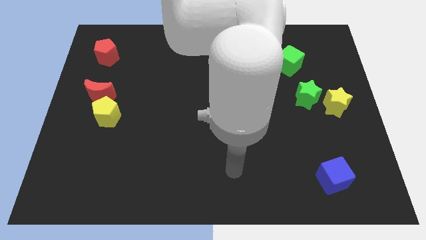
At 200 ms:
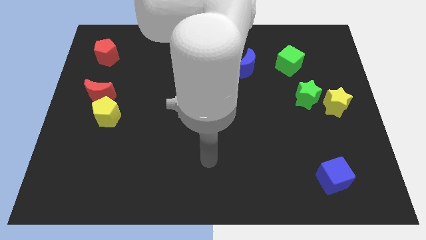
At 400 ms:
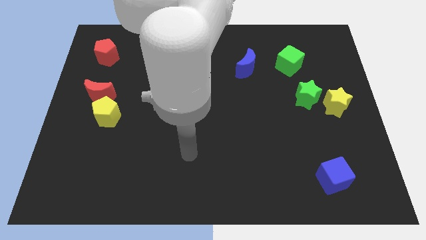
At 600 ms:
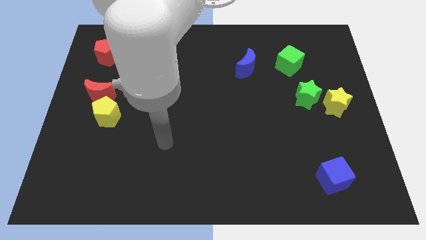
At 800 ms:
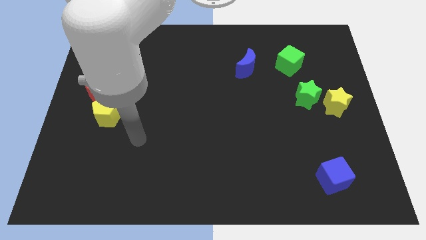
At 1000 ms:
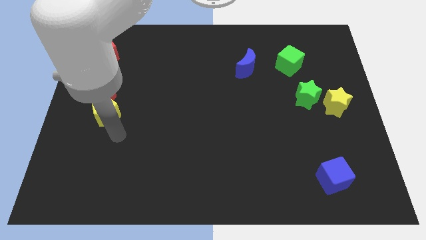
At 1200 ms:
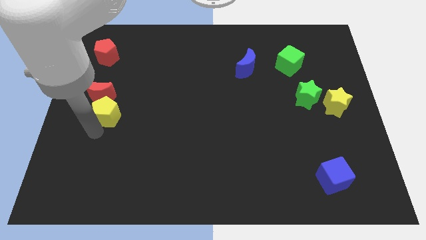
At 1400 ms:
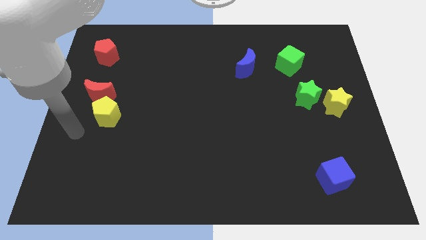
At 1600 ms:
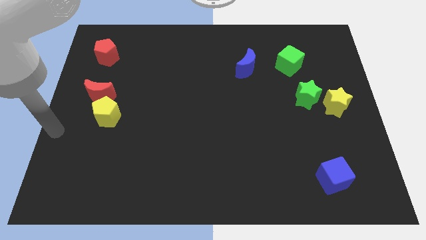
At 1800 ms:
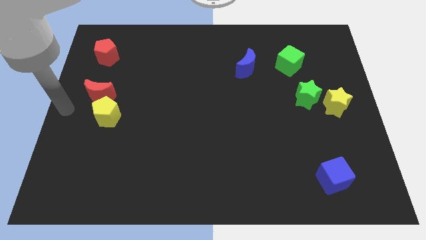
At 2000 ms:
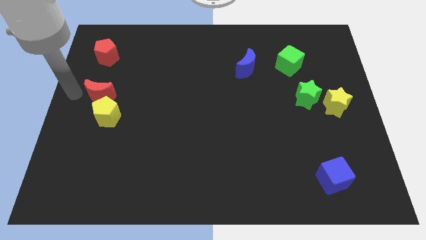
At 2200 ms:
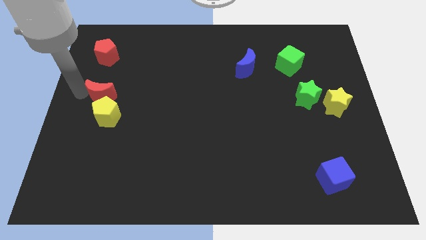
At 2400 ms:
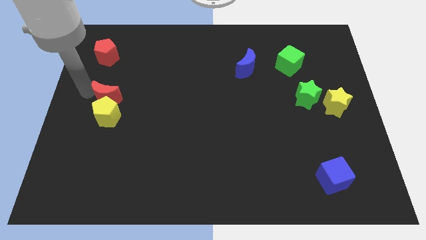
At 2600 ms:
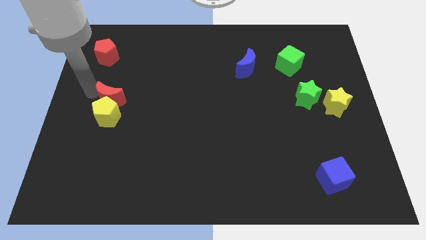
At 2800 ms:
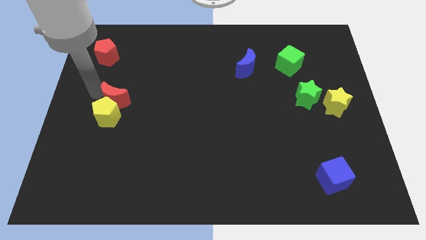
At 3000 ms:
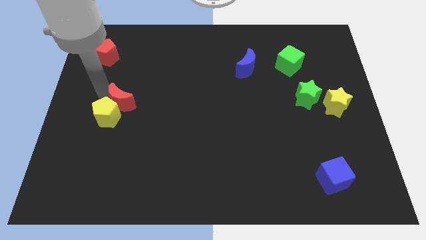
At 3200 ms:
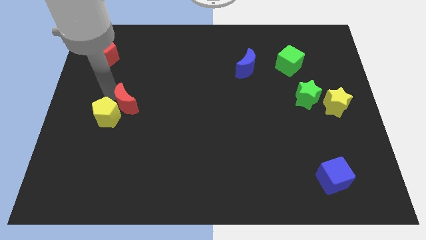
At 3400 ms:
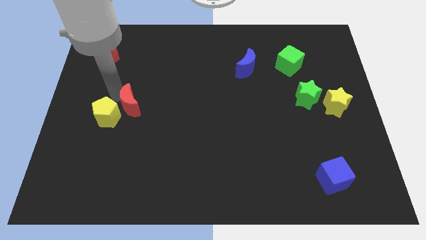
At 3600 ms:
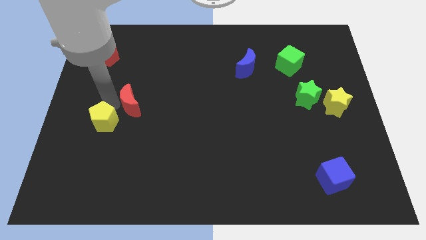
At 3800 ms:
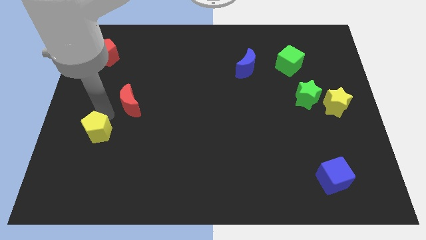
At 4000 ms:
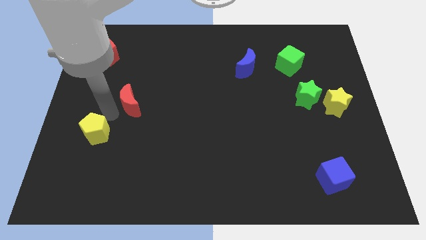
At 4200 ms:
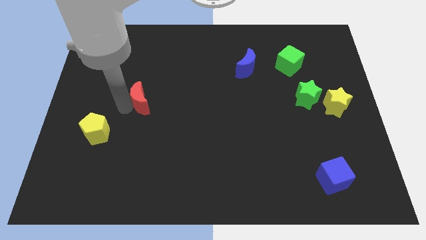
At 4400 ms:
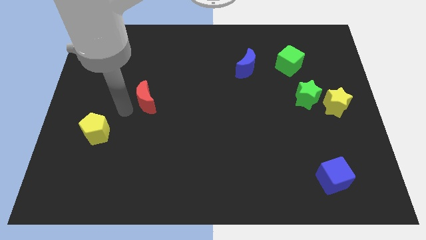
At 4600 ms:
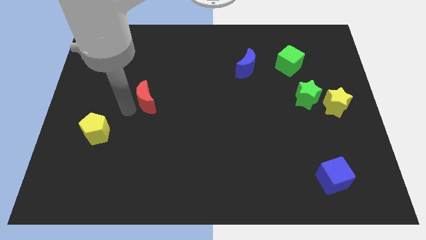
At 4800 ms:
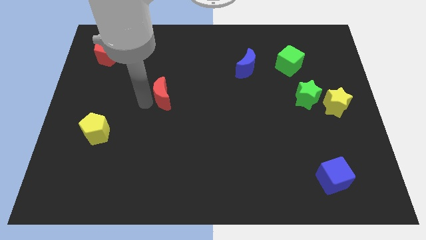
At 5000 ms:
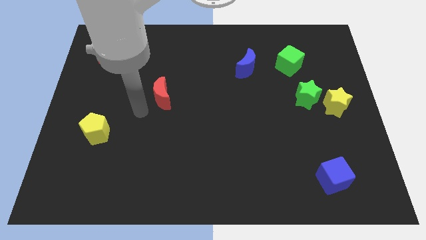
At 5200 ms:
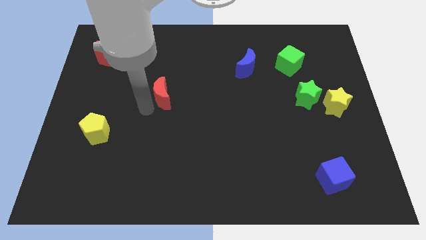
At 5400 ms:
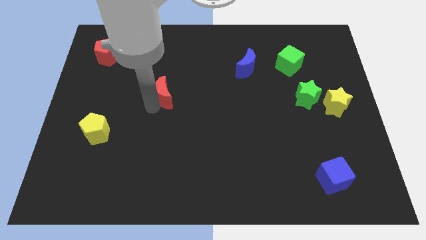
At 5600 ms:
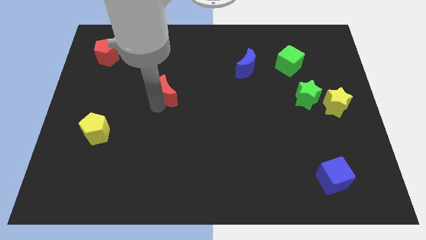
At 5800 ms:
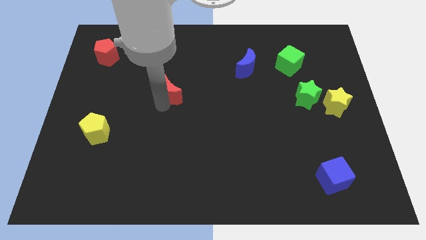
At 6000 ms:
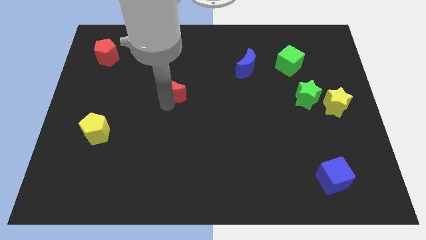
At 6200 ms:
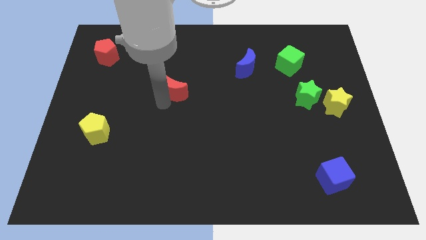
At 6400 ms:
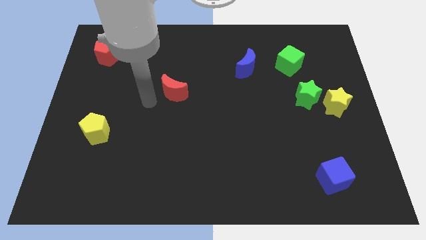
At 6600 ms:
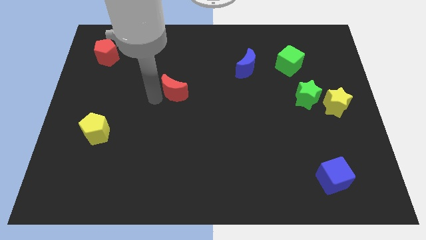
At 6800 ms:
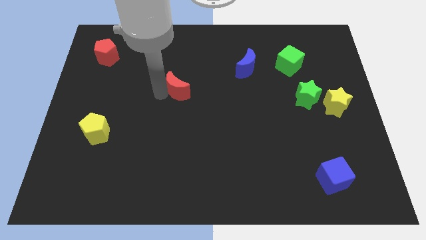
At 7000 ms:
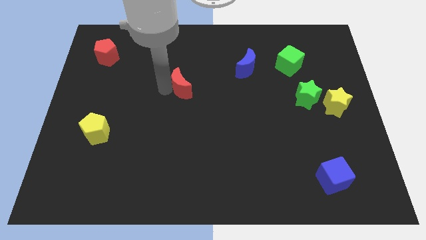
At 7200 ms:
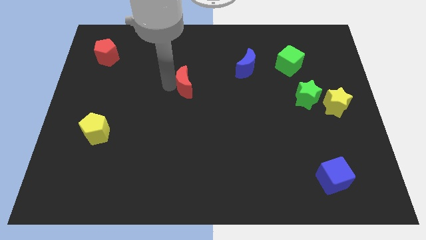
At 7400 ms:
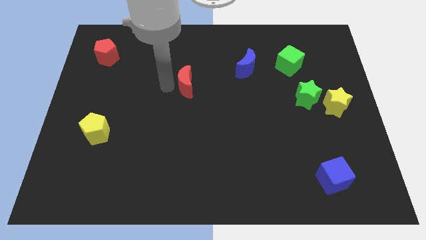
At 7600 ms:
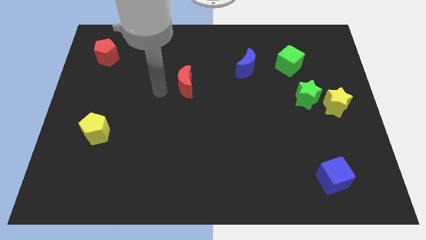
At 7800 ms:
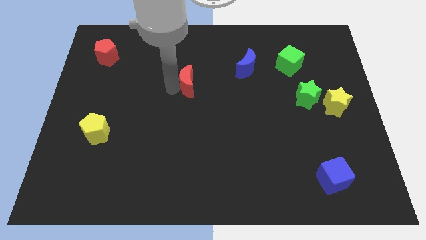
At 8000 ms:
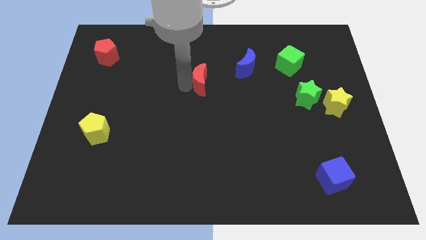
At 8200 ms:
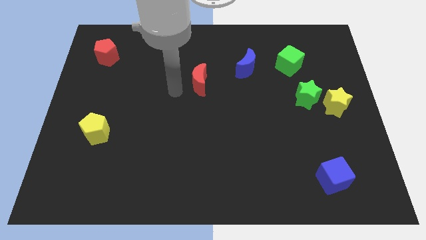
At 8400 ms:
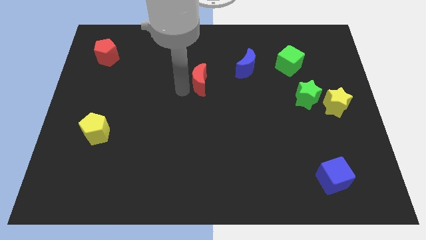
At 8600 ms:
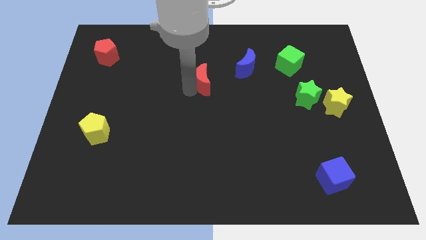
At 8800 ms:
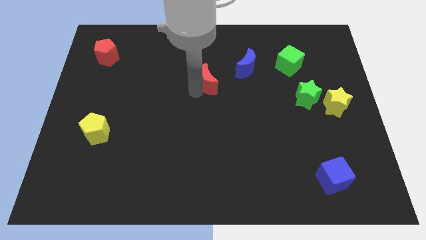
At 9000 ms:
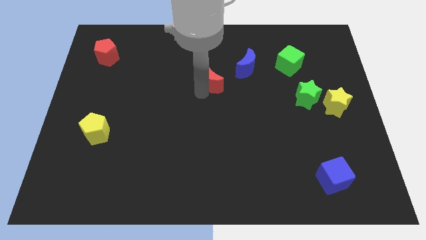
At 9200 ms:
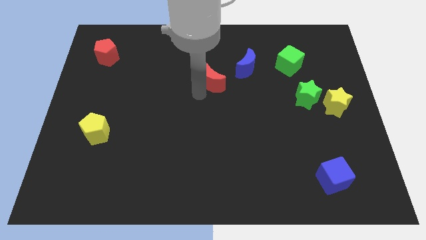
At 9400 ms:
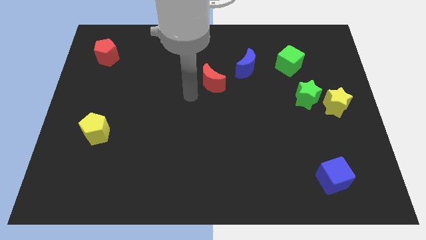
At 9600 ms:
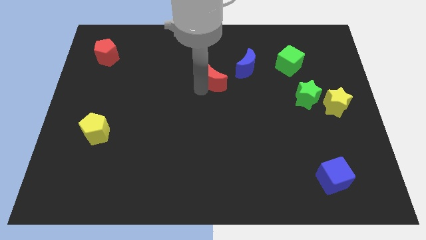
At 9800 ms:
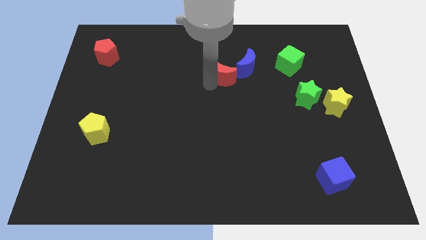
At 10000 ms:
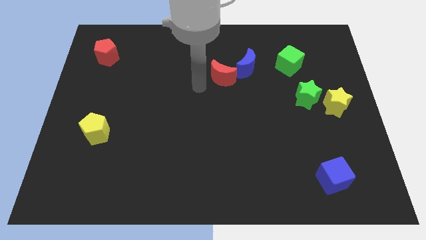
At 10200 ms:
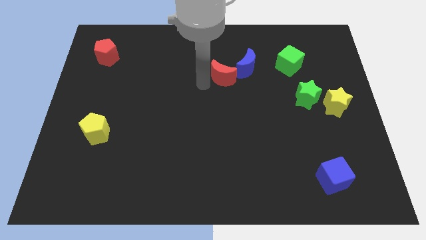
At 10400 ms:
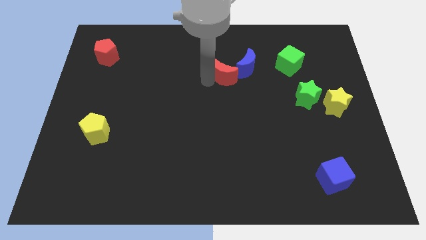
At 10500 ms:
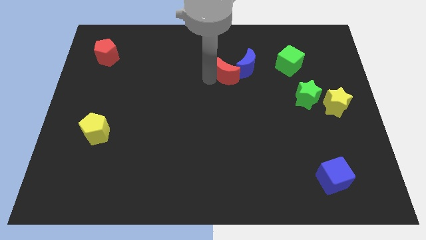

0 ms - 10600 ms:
push the red moon to the blue moon

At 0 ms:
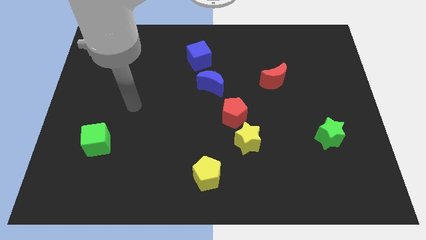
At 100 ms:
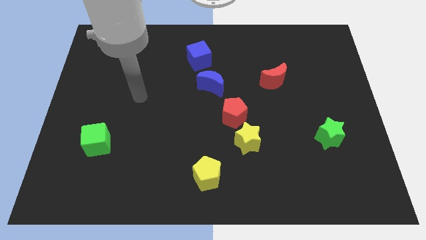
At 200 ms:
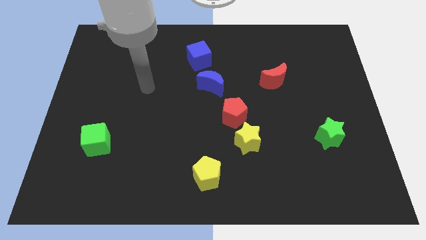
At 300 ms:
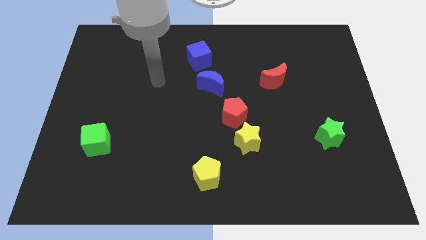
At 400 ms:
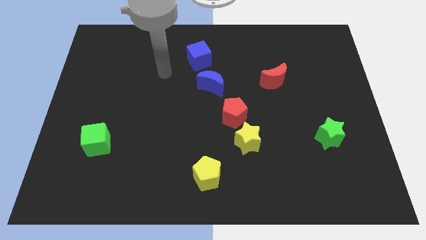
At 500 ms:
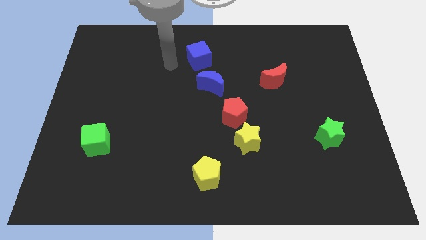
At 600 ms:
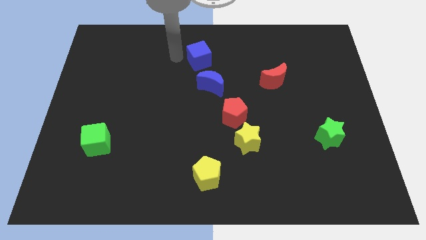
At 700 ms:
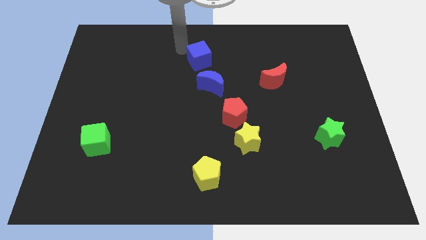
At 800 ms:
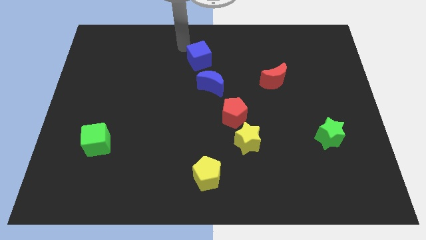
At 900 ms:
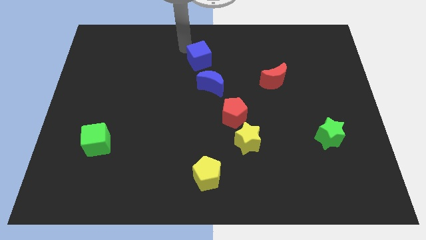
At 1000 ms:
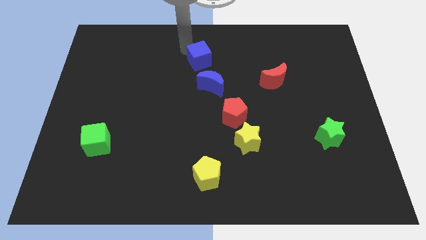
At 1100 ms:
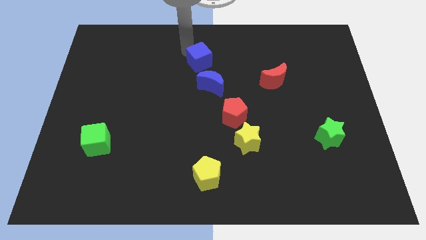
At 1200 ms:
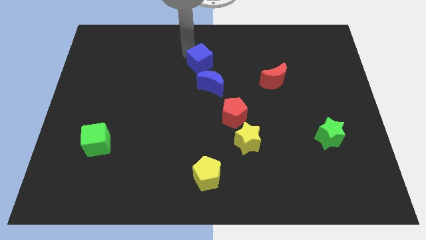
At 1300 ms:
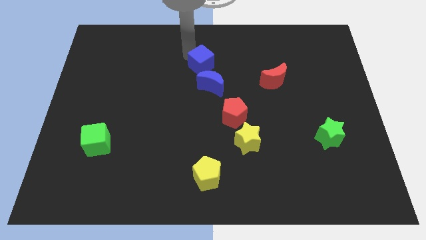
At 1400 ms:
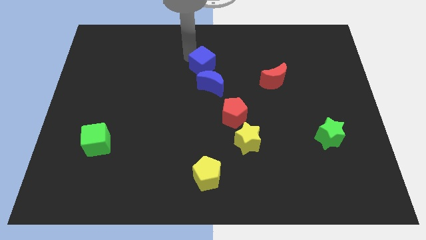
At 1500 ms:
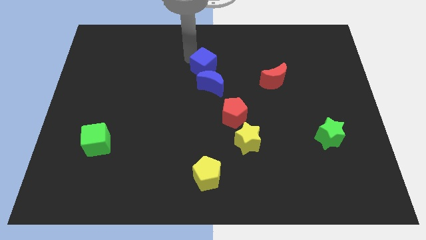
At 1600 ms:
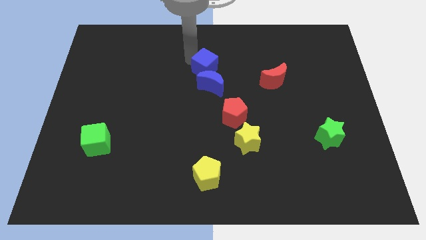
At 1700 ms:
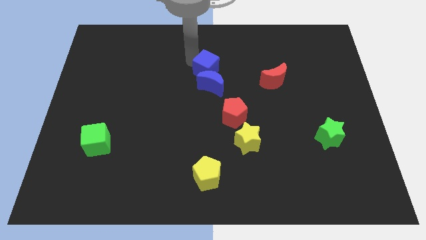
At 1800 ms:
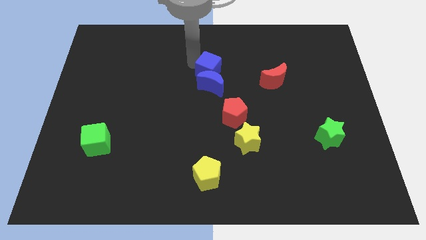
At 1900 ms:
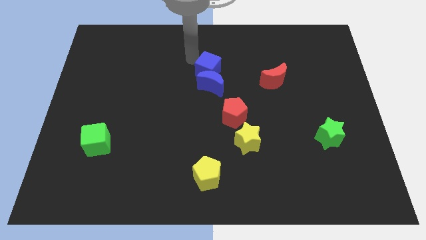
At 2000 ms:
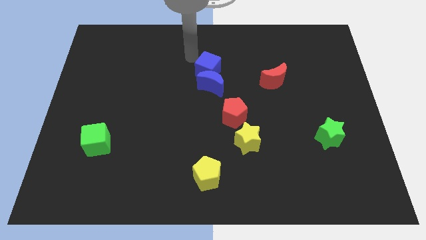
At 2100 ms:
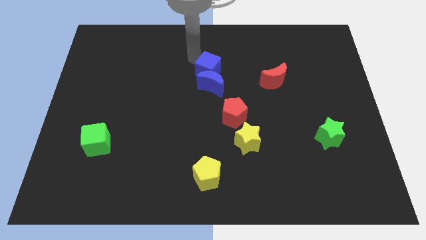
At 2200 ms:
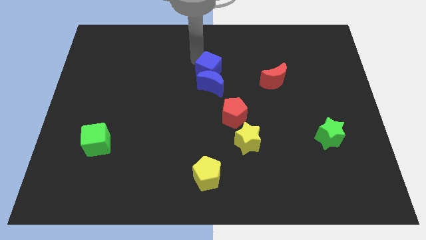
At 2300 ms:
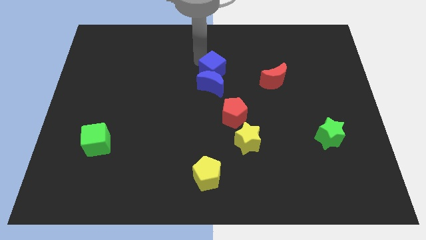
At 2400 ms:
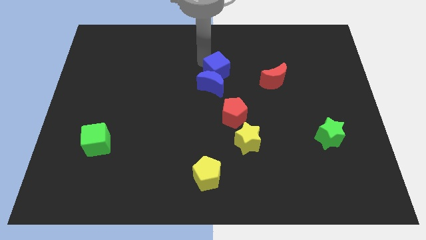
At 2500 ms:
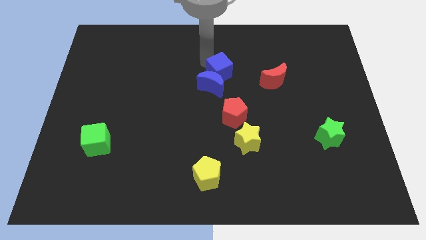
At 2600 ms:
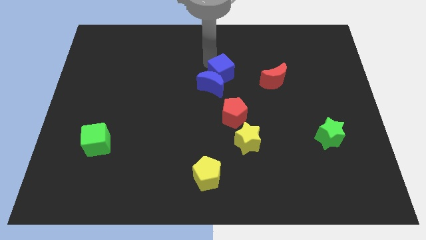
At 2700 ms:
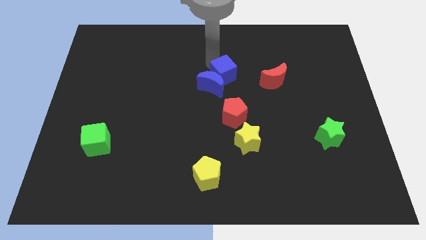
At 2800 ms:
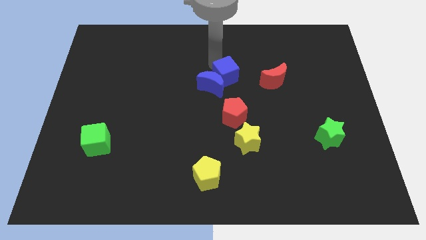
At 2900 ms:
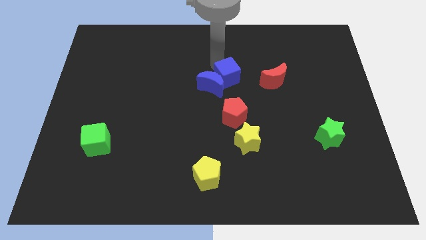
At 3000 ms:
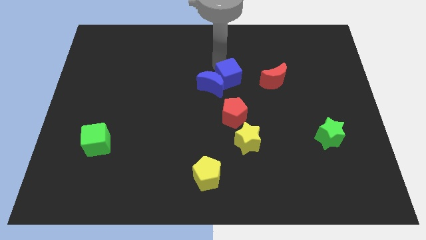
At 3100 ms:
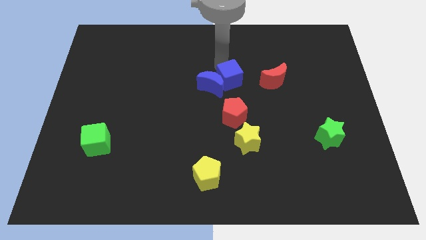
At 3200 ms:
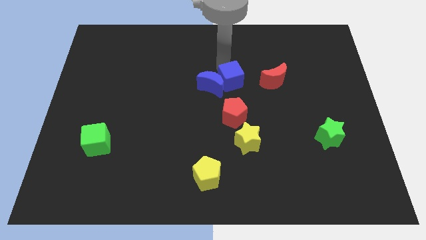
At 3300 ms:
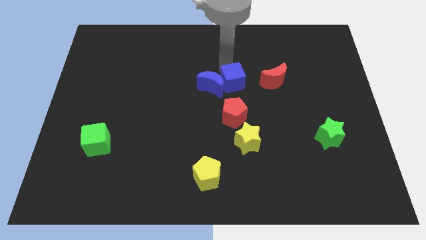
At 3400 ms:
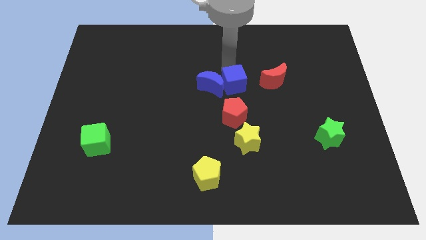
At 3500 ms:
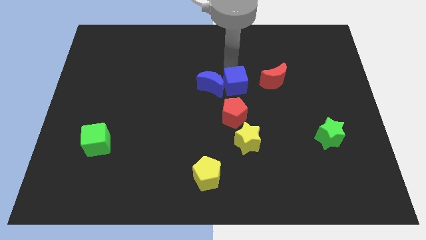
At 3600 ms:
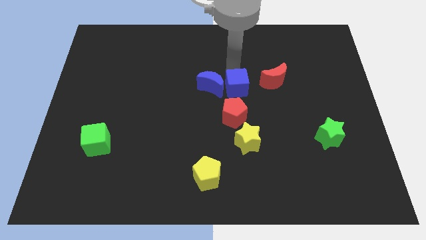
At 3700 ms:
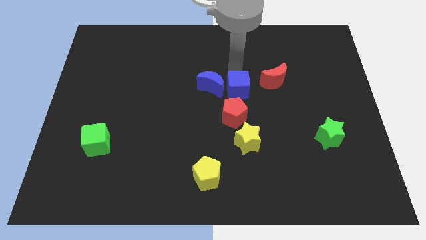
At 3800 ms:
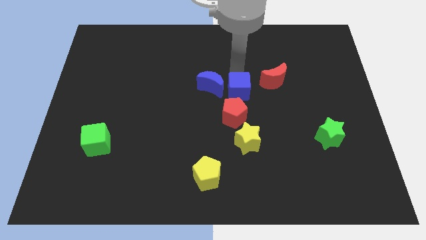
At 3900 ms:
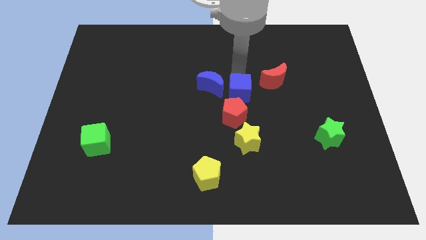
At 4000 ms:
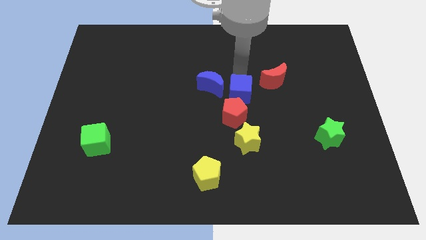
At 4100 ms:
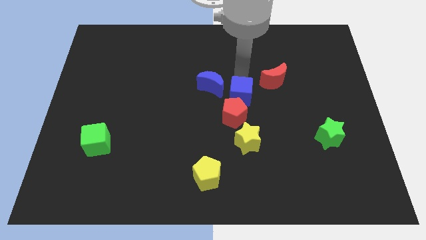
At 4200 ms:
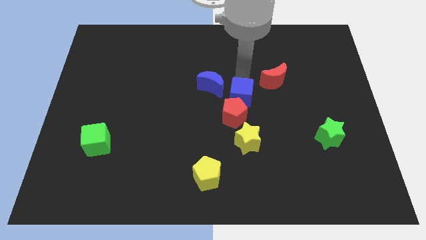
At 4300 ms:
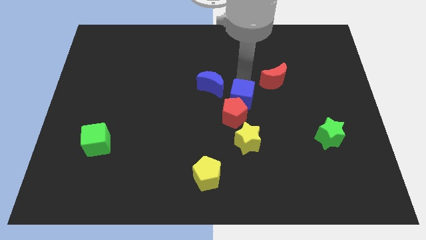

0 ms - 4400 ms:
put the blue cube close to the red pentagon
